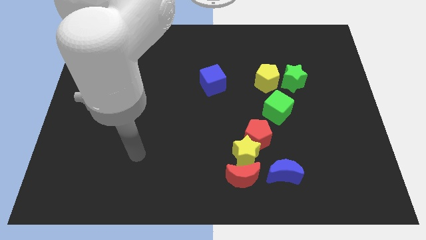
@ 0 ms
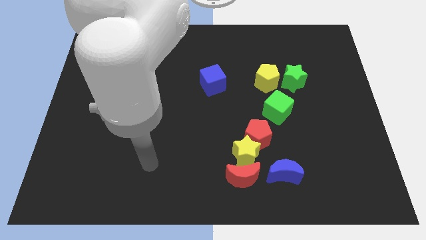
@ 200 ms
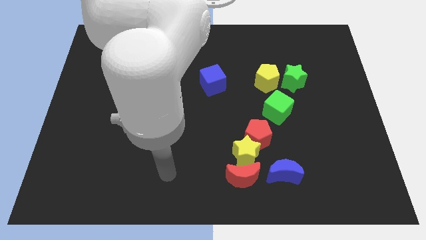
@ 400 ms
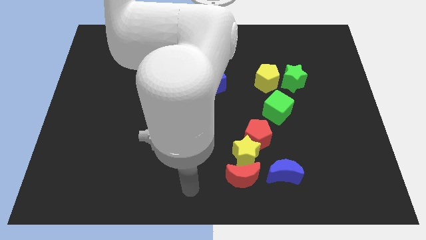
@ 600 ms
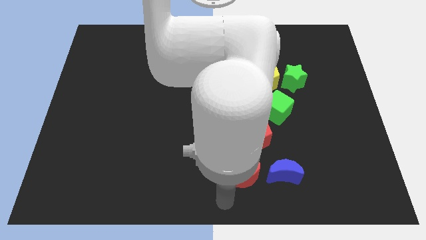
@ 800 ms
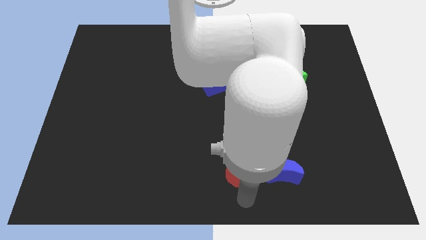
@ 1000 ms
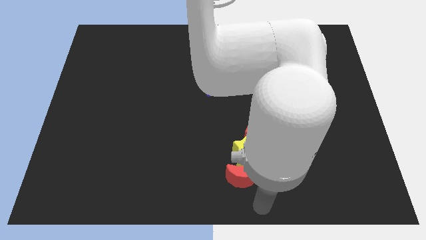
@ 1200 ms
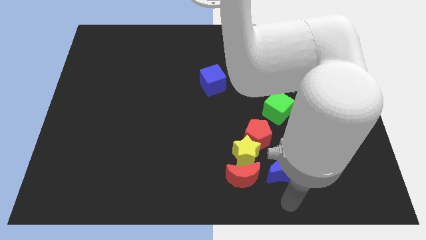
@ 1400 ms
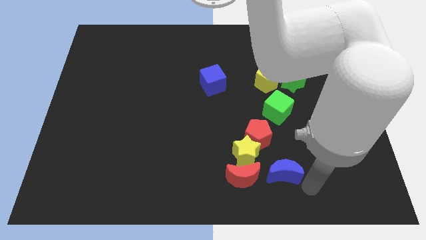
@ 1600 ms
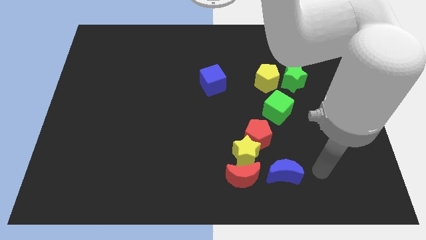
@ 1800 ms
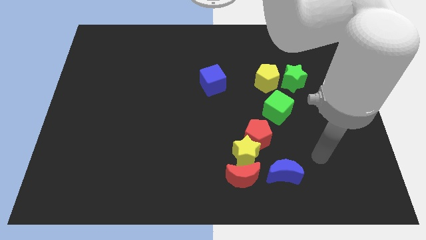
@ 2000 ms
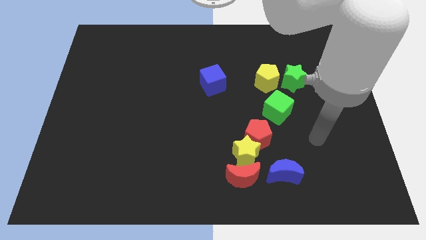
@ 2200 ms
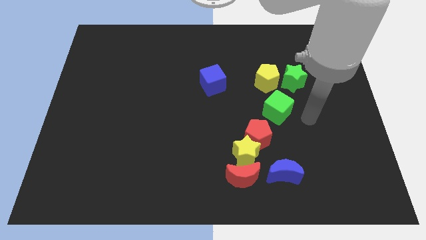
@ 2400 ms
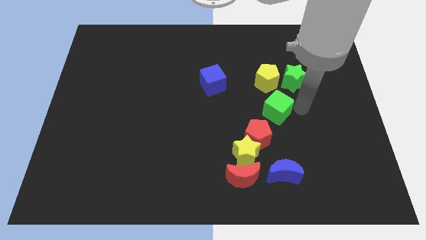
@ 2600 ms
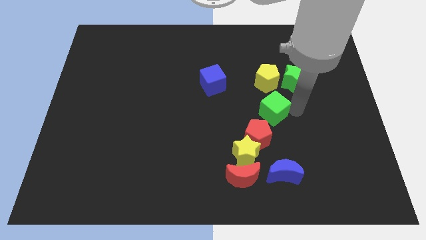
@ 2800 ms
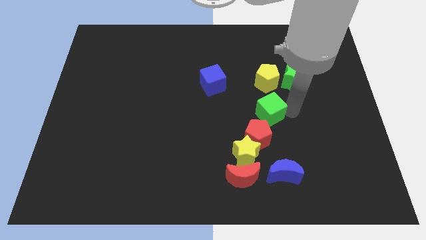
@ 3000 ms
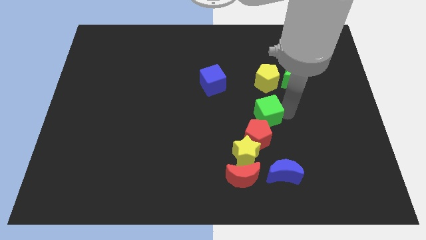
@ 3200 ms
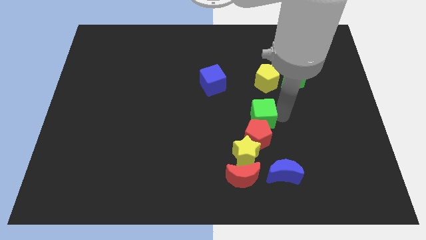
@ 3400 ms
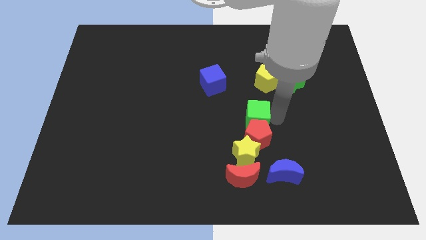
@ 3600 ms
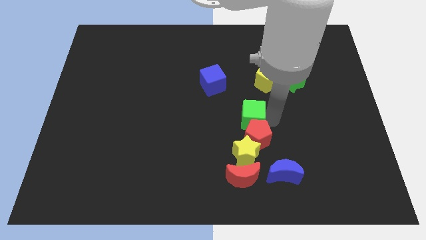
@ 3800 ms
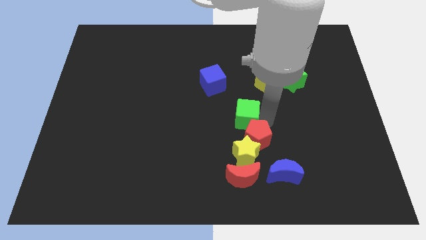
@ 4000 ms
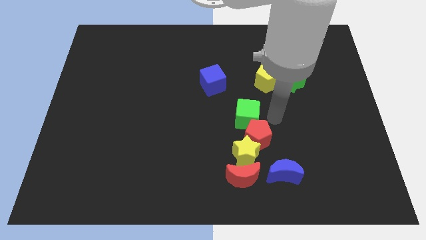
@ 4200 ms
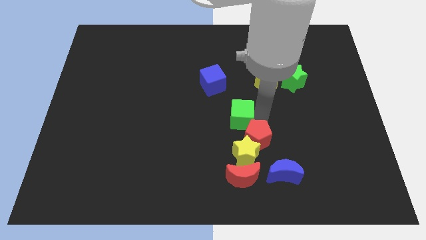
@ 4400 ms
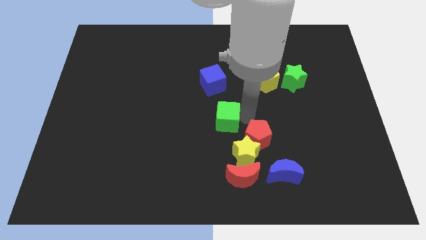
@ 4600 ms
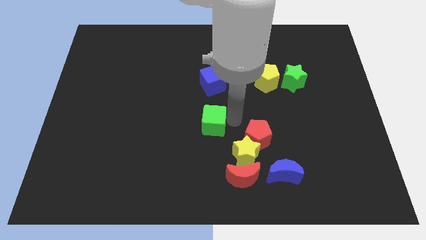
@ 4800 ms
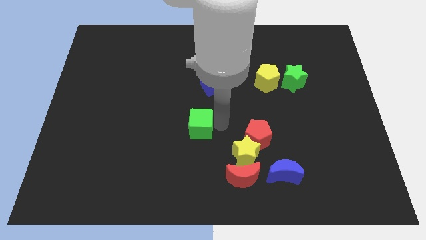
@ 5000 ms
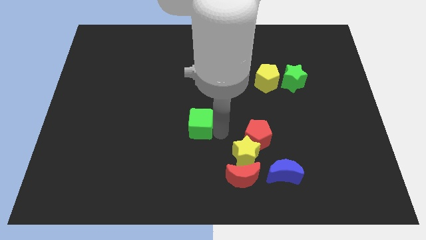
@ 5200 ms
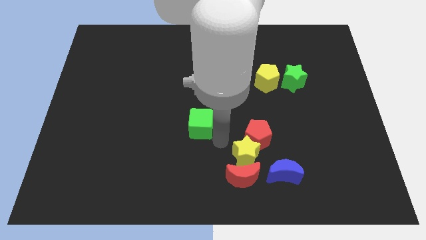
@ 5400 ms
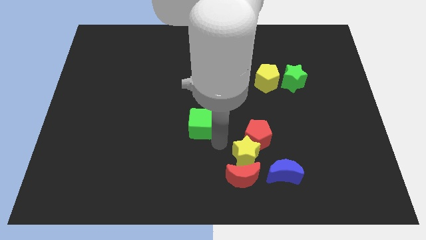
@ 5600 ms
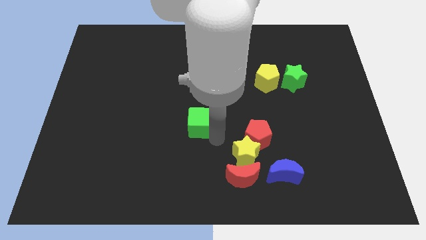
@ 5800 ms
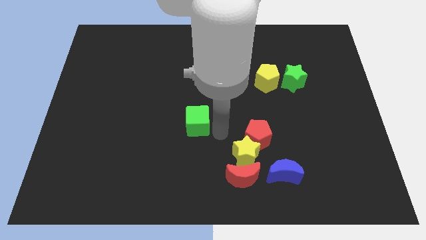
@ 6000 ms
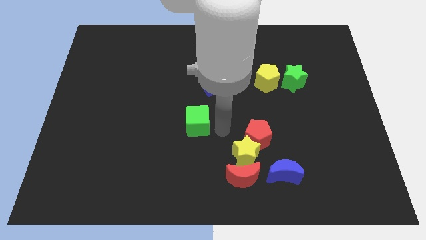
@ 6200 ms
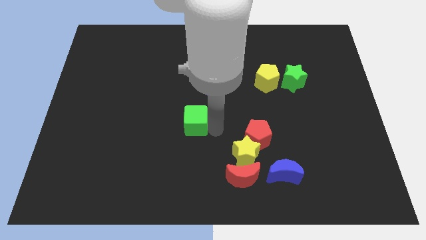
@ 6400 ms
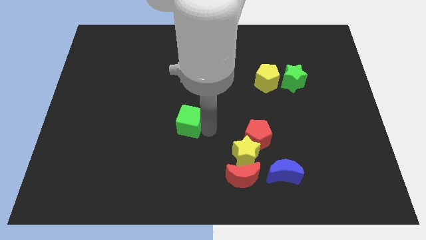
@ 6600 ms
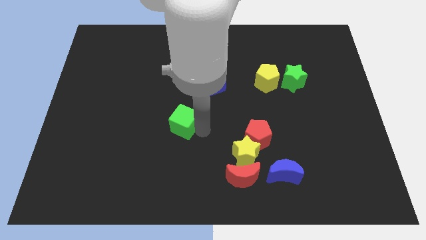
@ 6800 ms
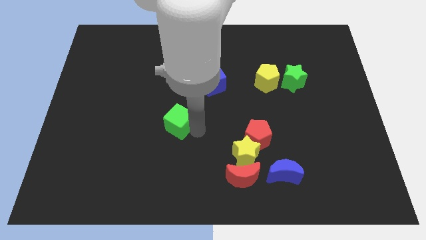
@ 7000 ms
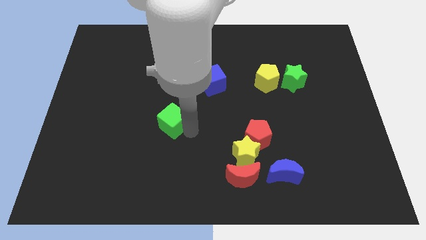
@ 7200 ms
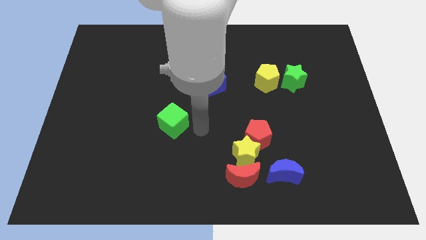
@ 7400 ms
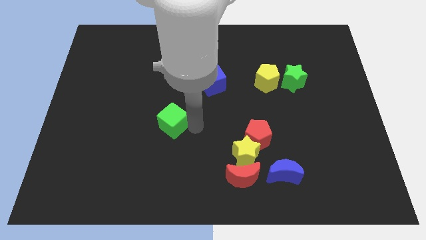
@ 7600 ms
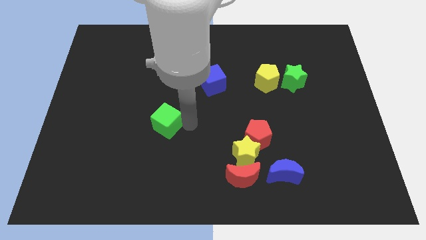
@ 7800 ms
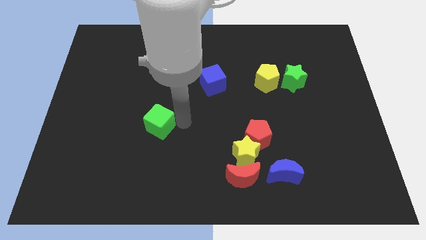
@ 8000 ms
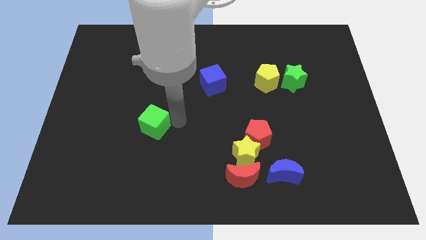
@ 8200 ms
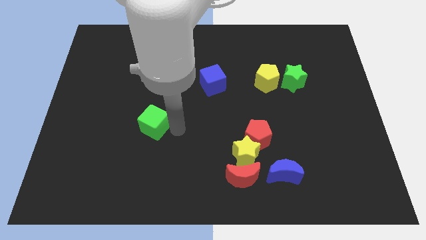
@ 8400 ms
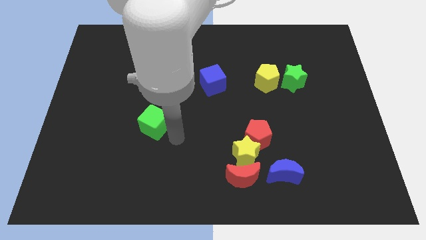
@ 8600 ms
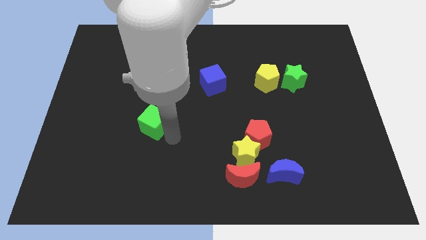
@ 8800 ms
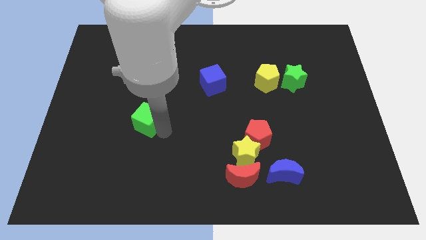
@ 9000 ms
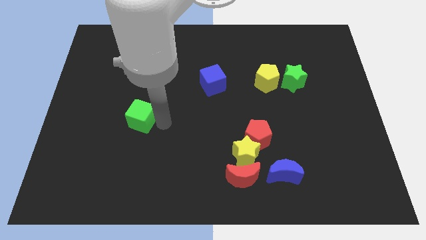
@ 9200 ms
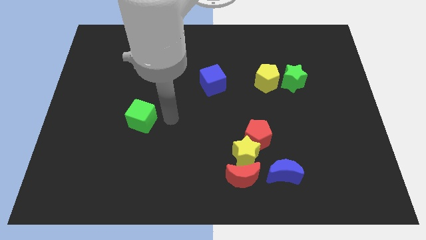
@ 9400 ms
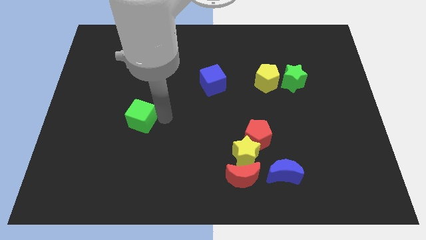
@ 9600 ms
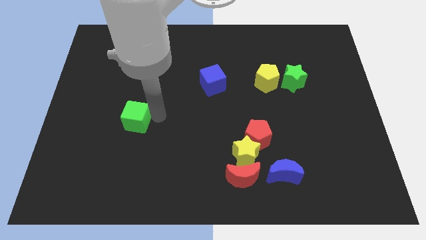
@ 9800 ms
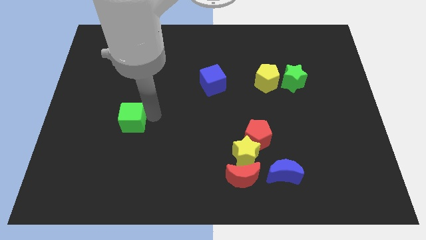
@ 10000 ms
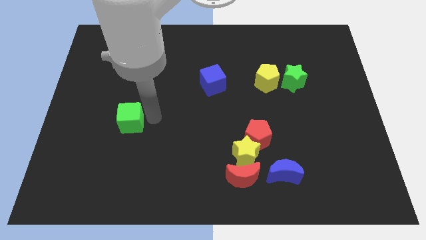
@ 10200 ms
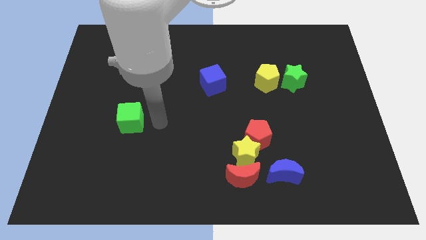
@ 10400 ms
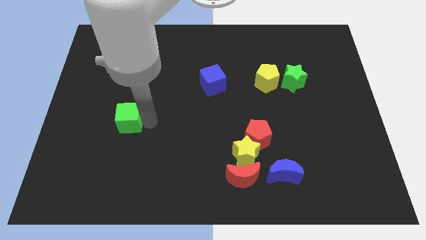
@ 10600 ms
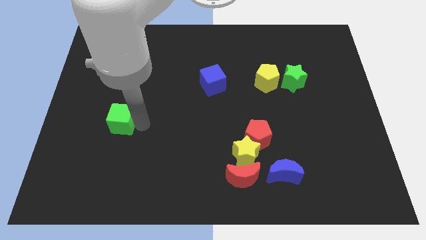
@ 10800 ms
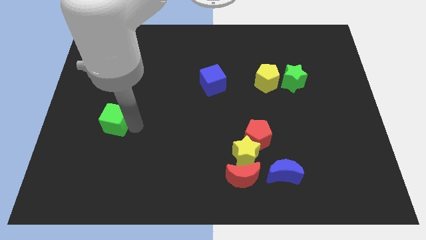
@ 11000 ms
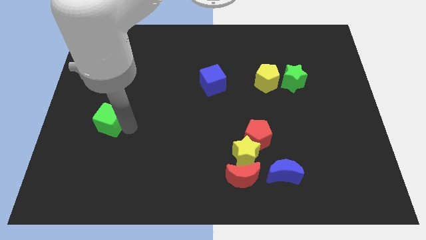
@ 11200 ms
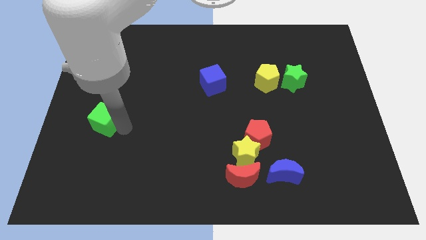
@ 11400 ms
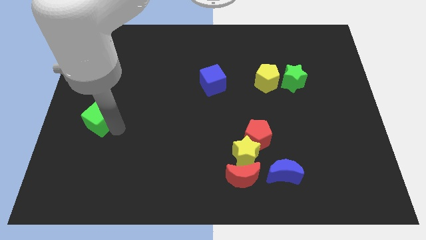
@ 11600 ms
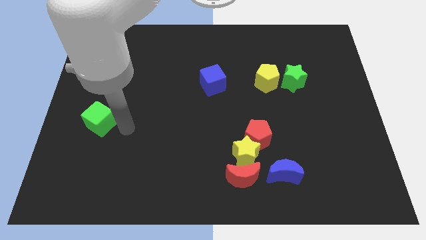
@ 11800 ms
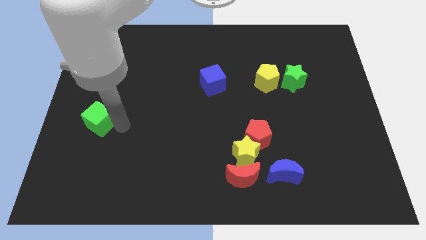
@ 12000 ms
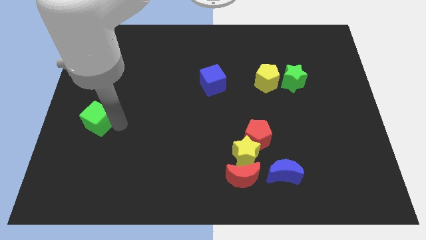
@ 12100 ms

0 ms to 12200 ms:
move the green cube to the left side
